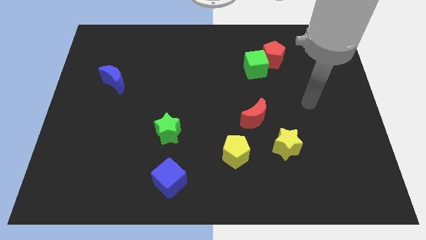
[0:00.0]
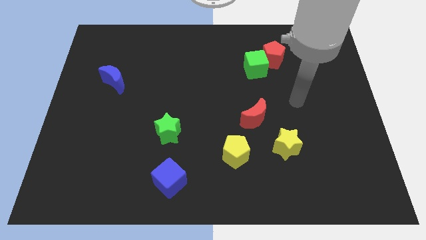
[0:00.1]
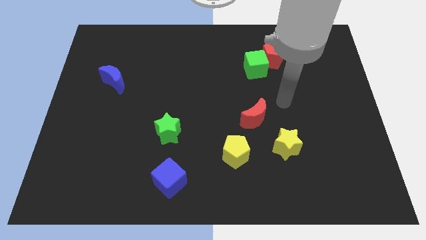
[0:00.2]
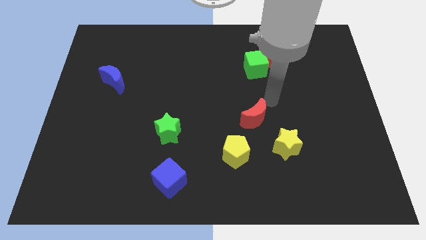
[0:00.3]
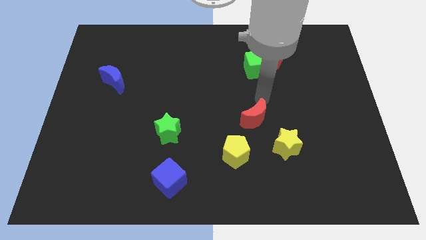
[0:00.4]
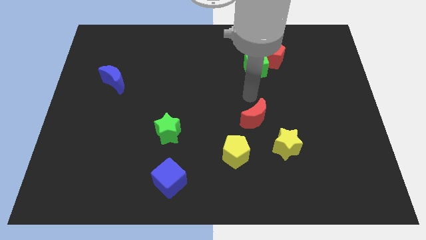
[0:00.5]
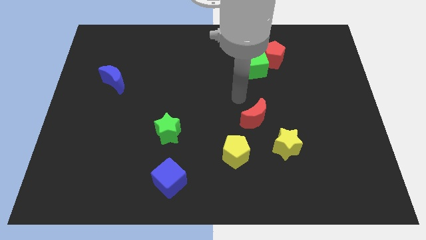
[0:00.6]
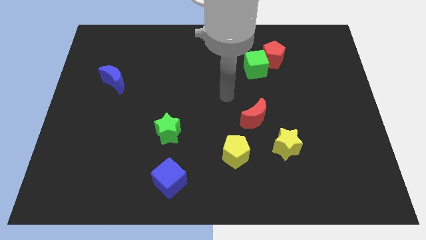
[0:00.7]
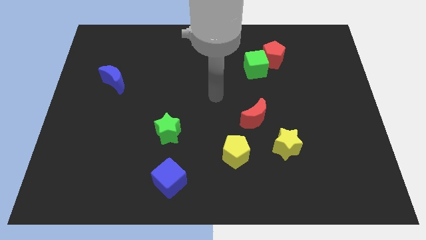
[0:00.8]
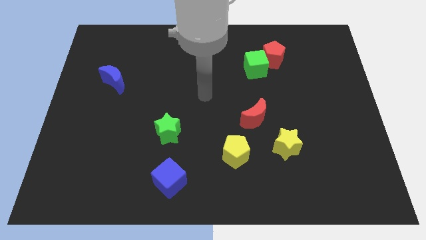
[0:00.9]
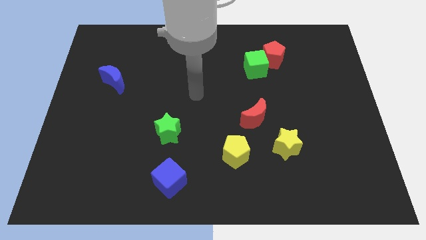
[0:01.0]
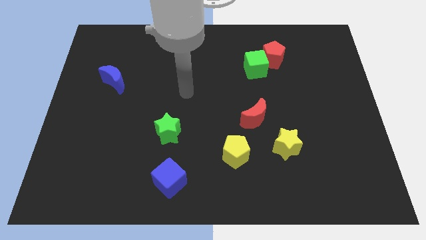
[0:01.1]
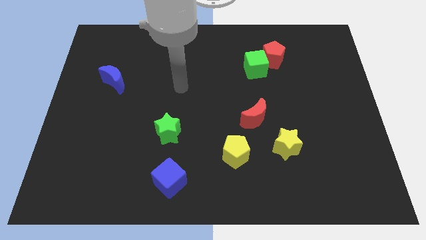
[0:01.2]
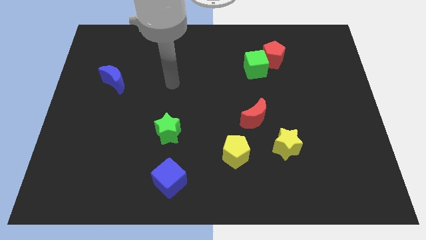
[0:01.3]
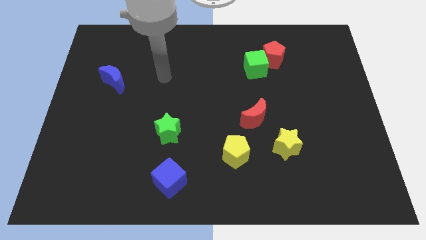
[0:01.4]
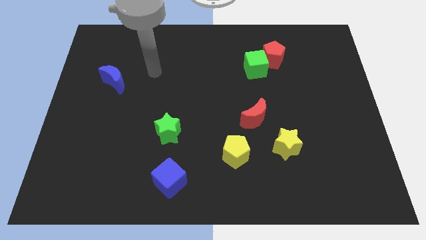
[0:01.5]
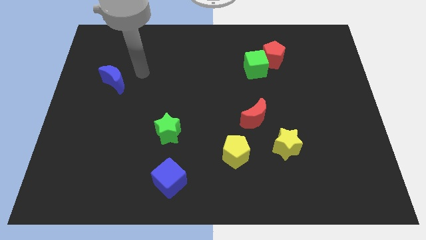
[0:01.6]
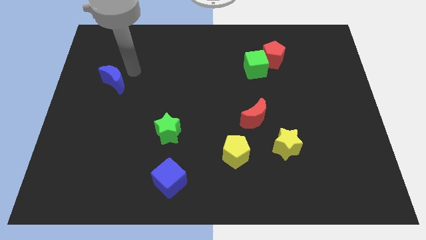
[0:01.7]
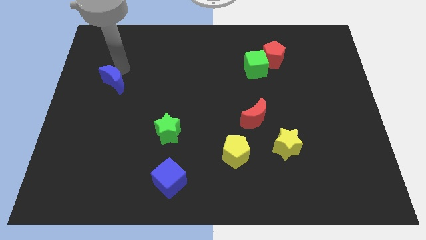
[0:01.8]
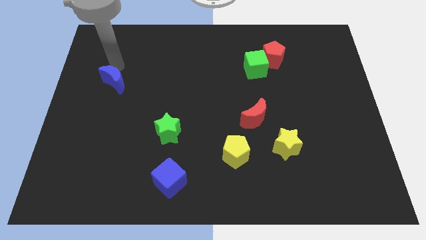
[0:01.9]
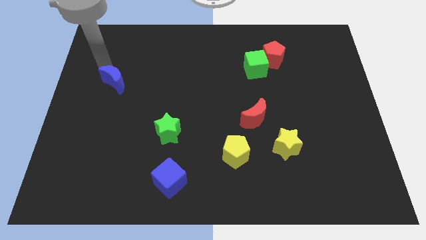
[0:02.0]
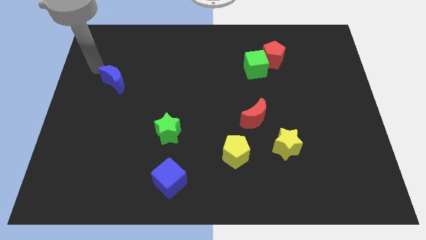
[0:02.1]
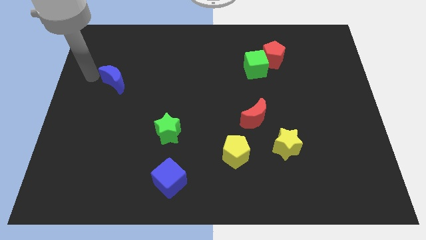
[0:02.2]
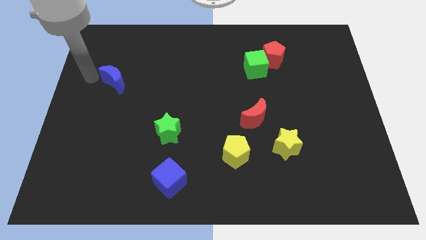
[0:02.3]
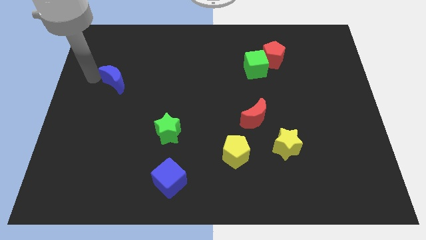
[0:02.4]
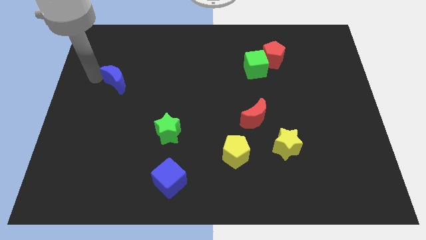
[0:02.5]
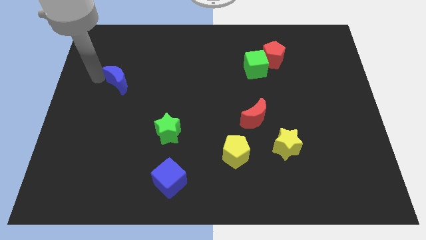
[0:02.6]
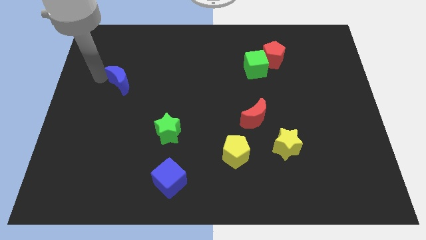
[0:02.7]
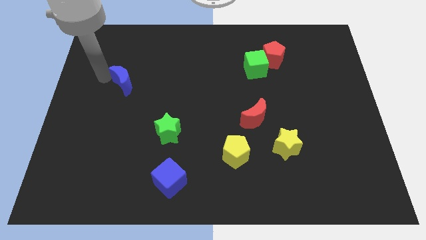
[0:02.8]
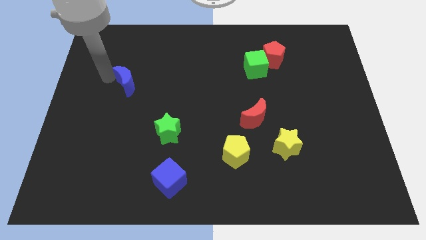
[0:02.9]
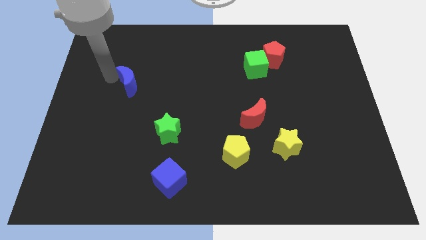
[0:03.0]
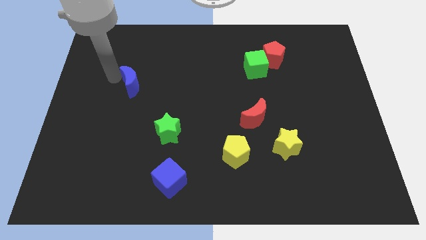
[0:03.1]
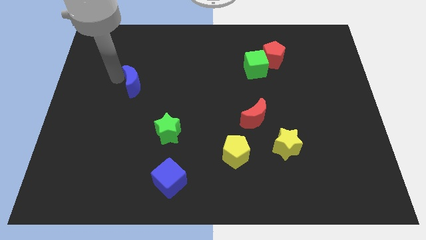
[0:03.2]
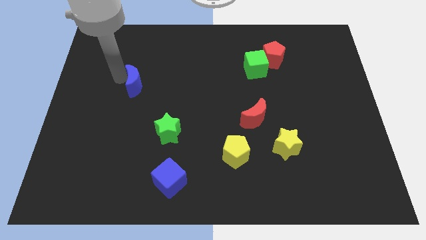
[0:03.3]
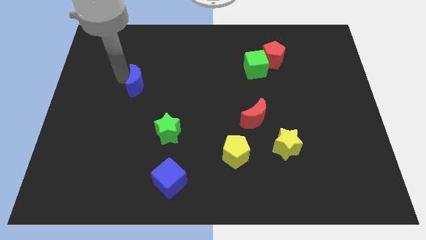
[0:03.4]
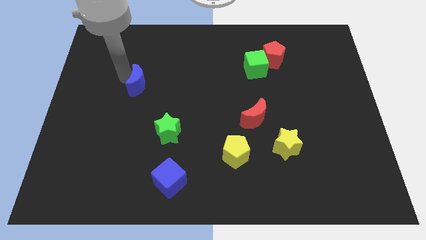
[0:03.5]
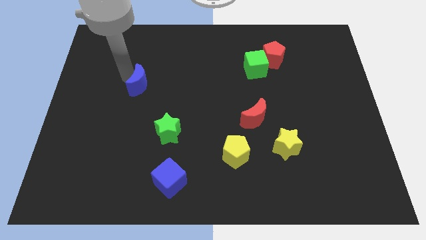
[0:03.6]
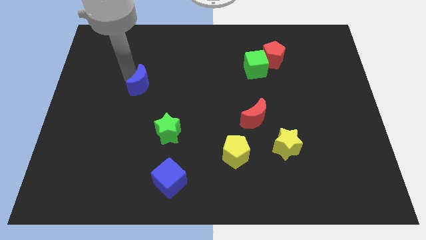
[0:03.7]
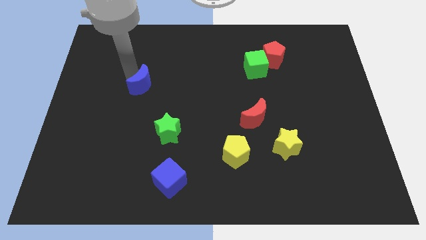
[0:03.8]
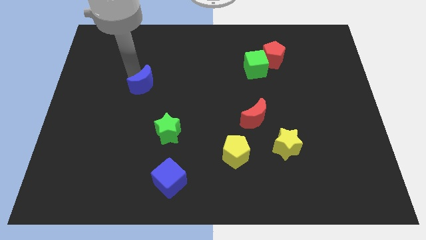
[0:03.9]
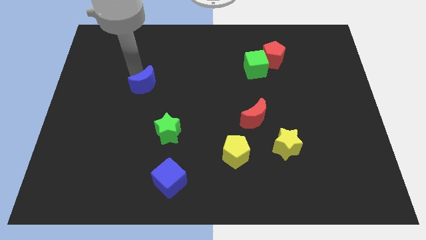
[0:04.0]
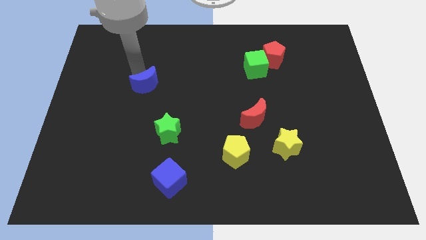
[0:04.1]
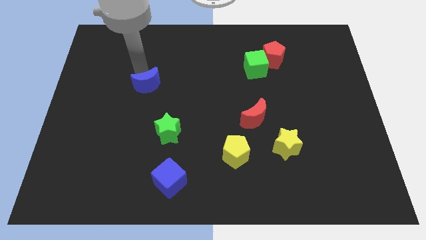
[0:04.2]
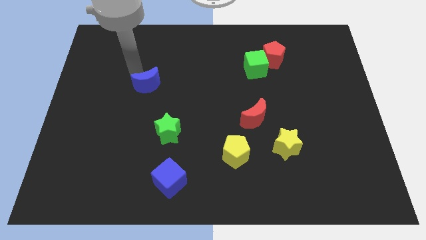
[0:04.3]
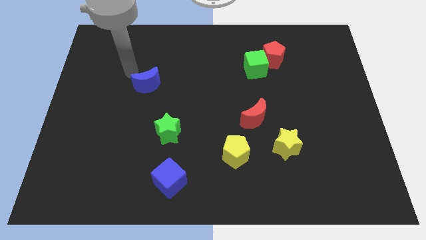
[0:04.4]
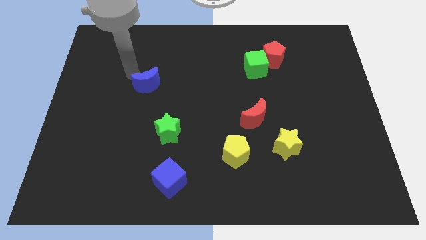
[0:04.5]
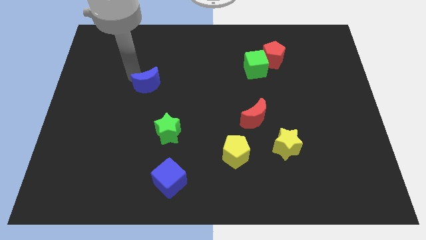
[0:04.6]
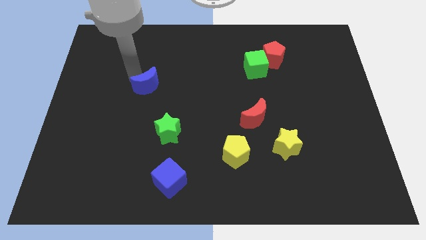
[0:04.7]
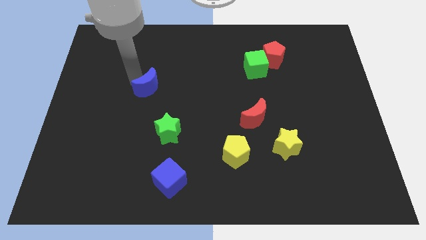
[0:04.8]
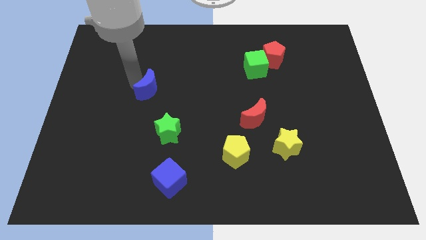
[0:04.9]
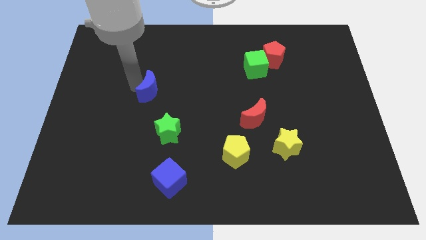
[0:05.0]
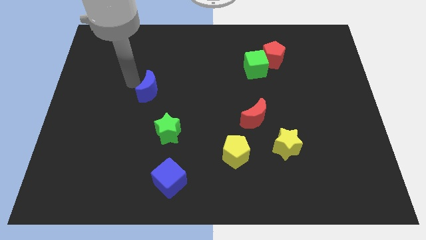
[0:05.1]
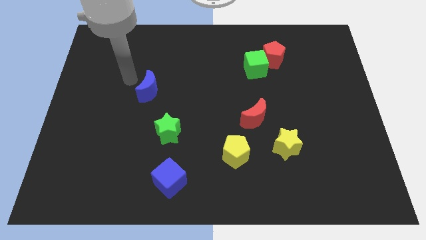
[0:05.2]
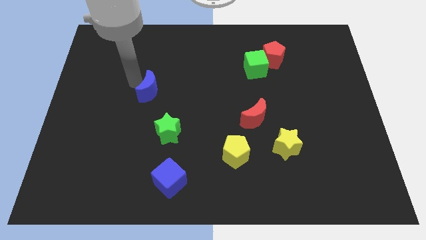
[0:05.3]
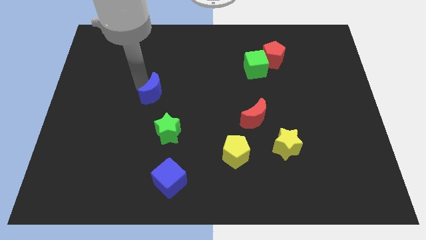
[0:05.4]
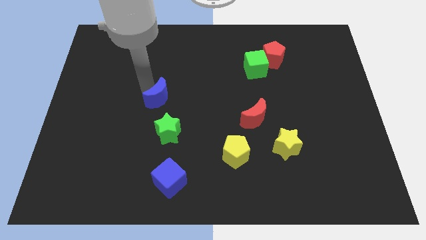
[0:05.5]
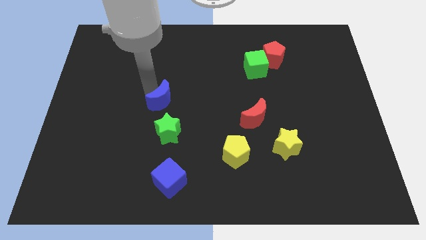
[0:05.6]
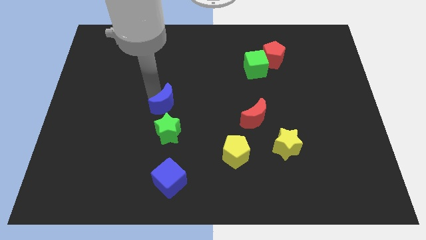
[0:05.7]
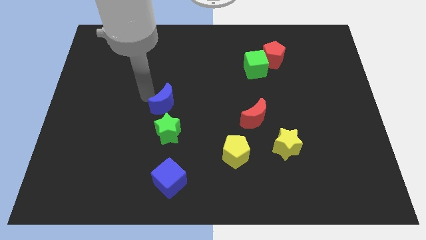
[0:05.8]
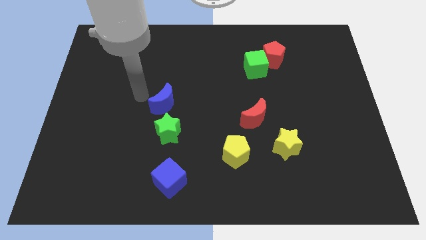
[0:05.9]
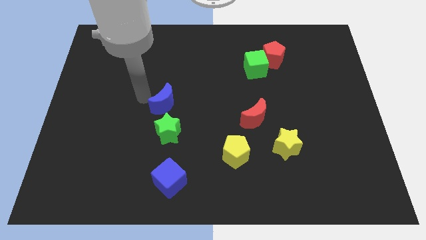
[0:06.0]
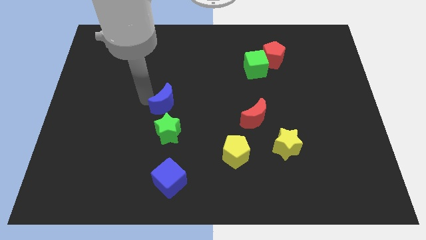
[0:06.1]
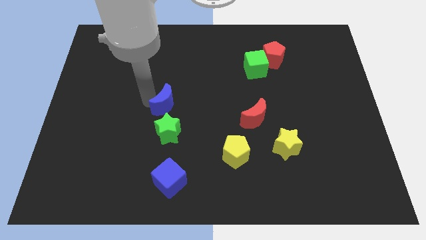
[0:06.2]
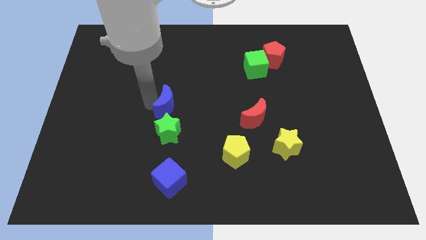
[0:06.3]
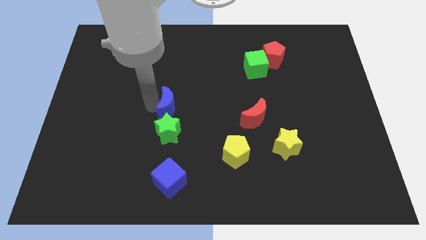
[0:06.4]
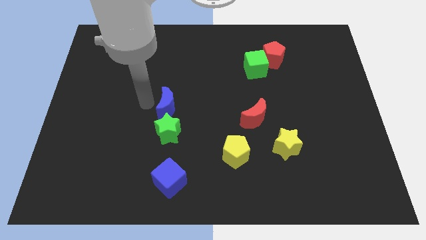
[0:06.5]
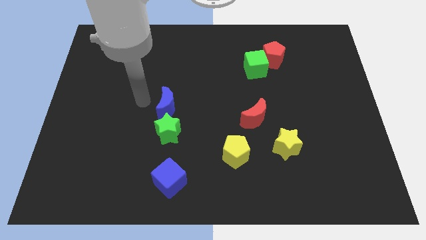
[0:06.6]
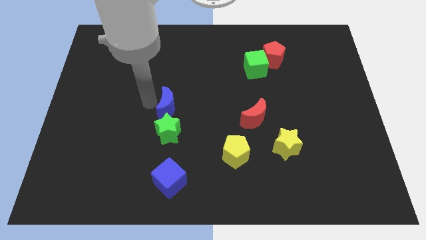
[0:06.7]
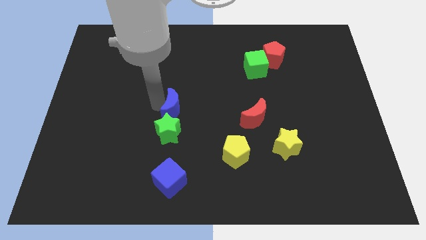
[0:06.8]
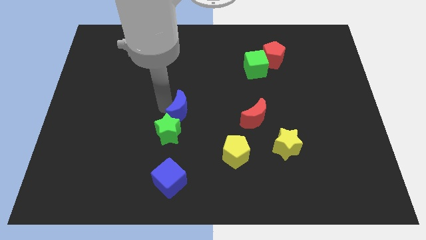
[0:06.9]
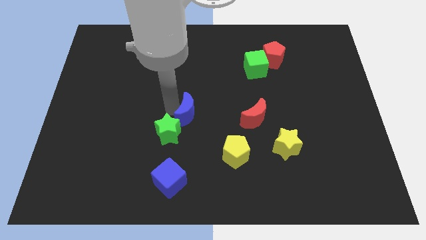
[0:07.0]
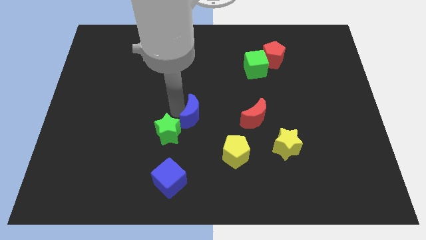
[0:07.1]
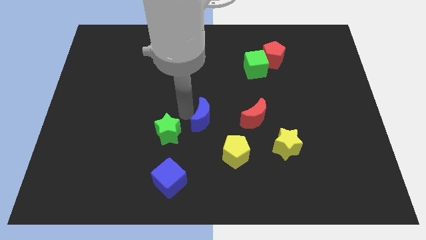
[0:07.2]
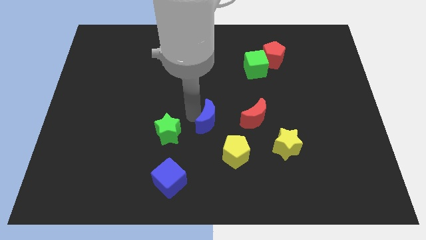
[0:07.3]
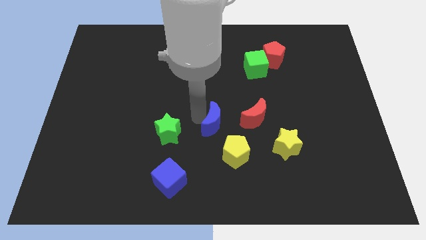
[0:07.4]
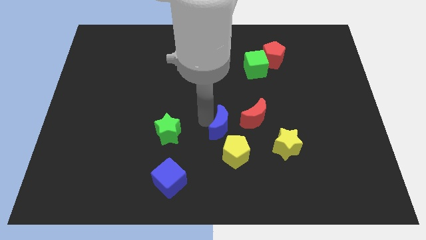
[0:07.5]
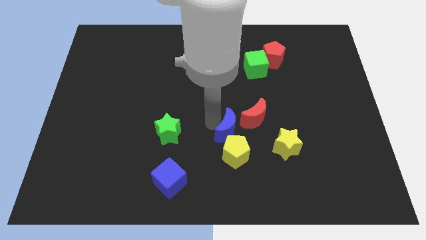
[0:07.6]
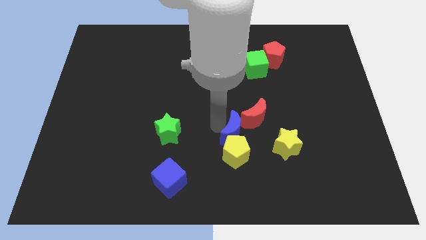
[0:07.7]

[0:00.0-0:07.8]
move the blue moon to the top right side of the yellow pentagon
